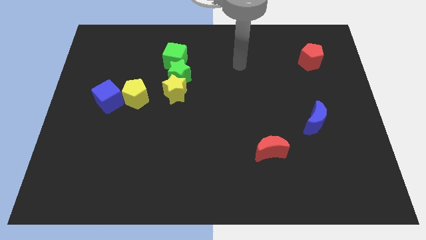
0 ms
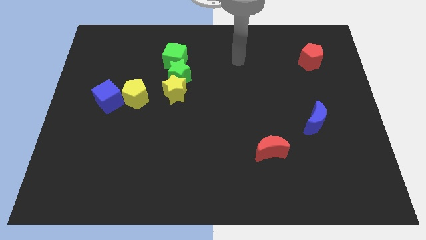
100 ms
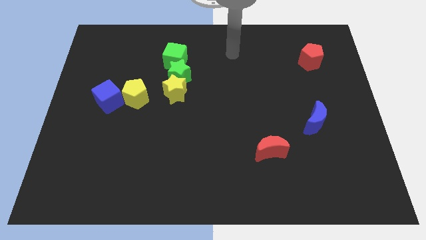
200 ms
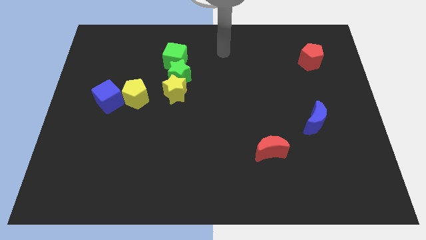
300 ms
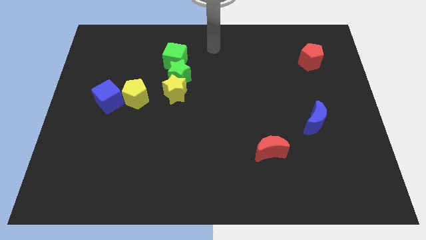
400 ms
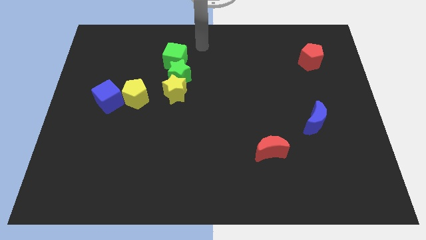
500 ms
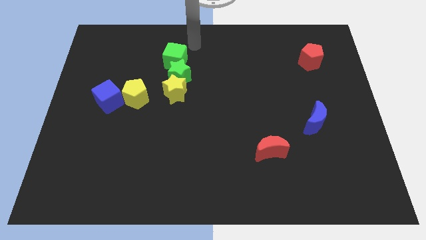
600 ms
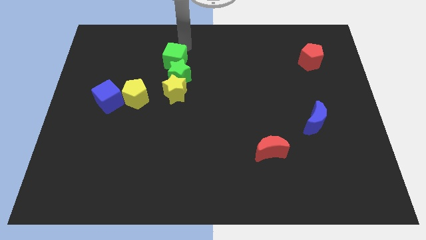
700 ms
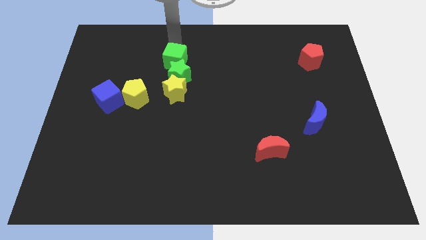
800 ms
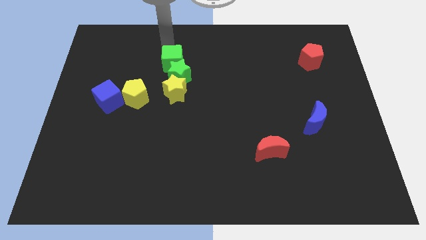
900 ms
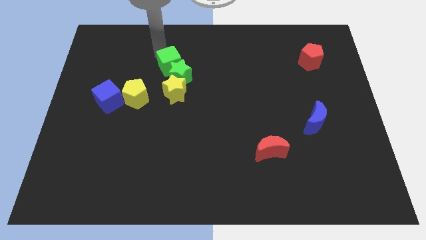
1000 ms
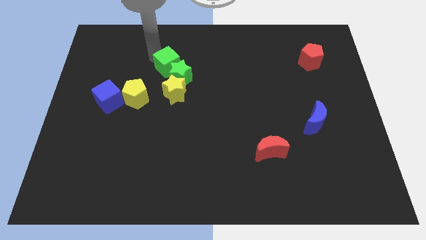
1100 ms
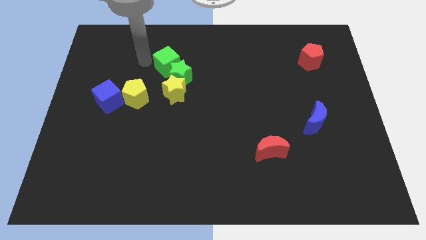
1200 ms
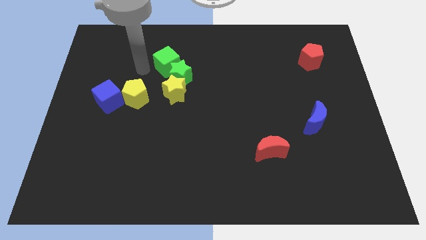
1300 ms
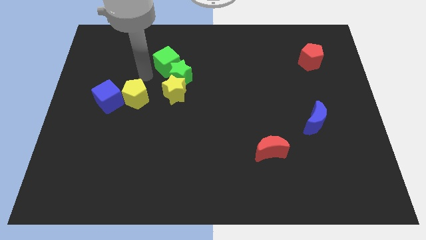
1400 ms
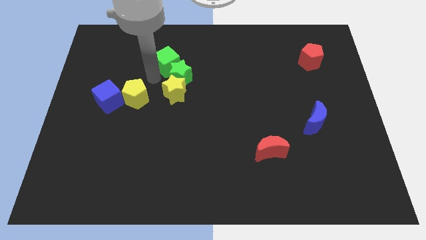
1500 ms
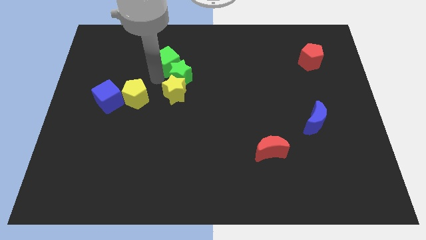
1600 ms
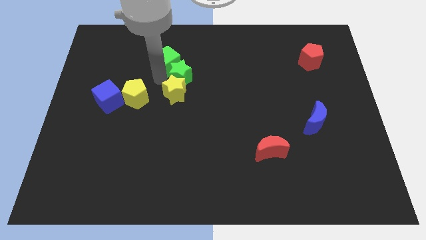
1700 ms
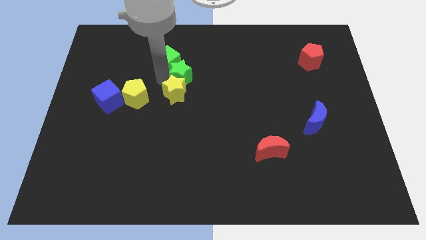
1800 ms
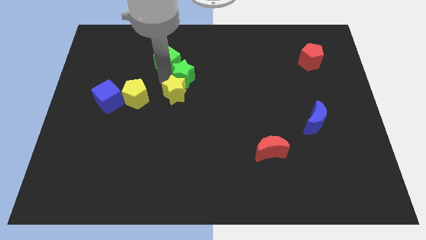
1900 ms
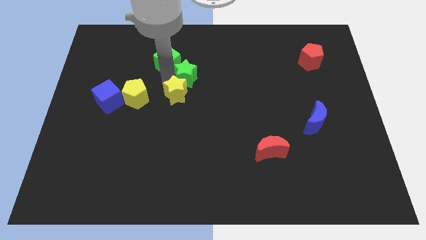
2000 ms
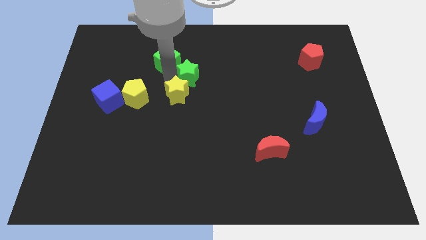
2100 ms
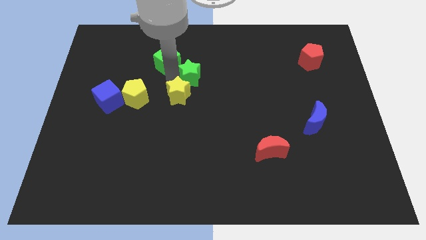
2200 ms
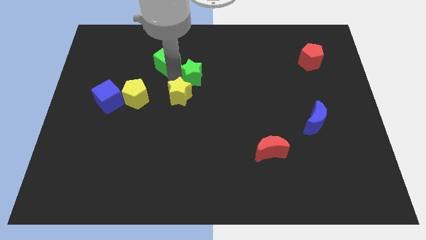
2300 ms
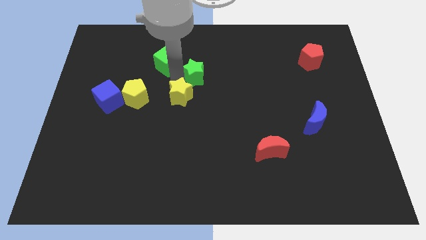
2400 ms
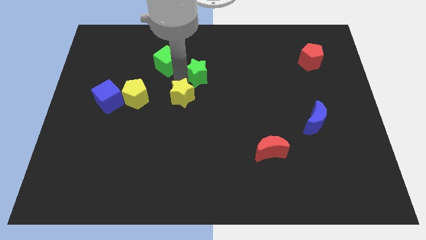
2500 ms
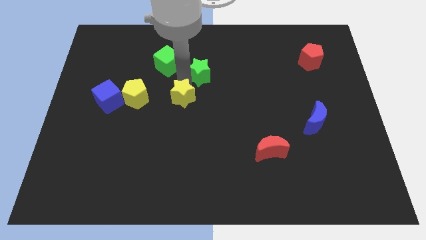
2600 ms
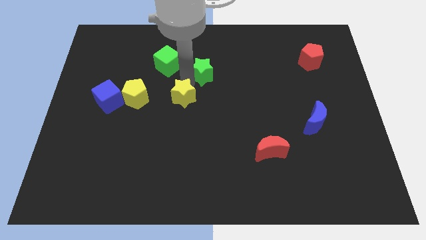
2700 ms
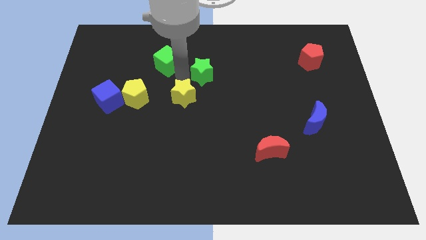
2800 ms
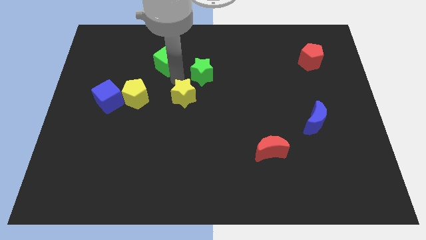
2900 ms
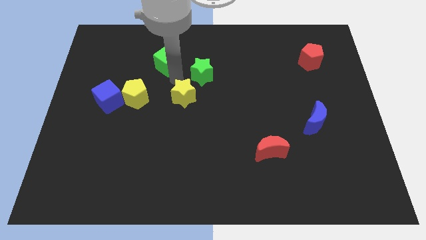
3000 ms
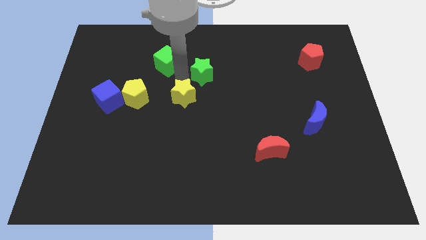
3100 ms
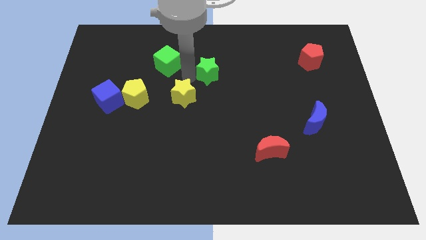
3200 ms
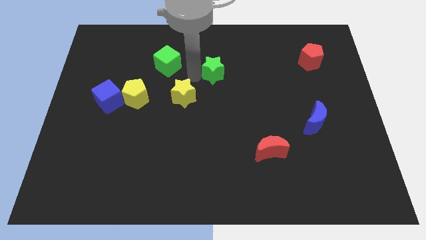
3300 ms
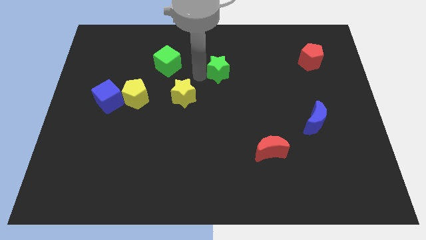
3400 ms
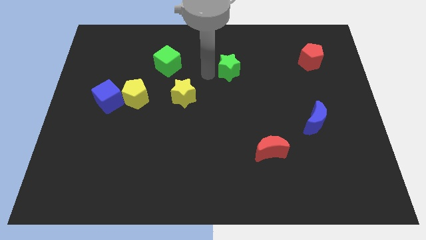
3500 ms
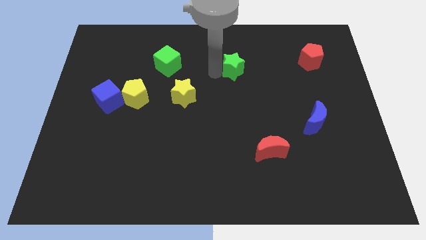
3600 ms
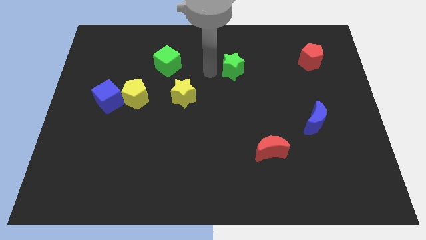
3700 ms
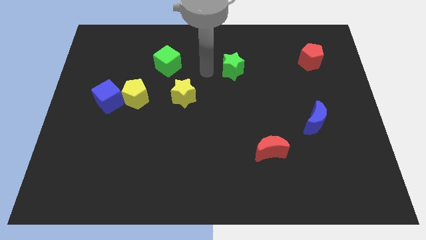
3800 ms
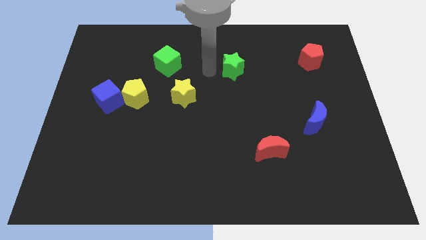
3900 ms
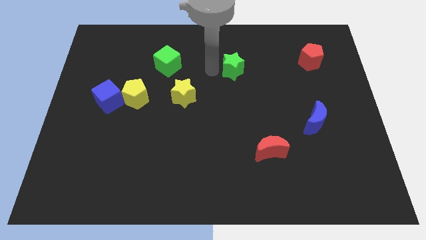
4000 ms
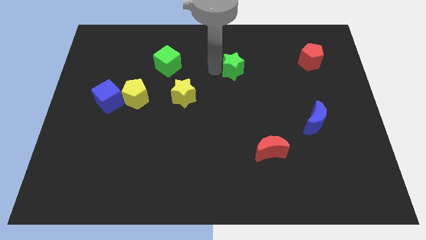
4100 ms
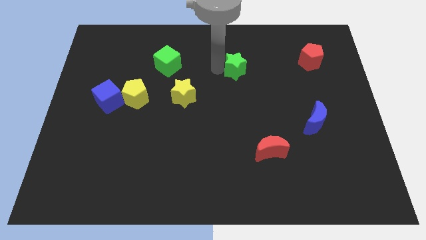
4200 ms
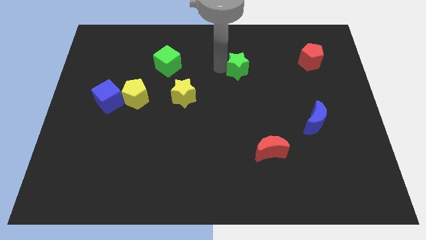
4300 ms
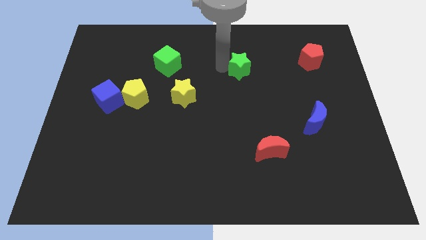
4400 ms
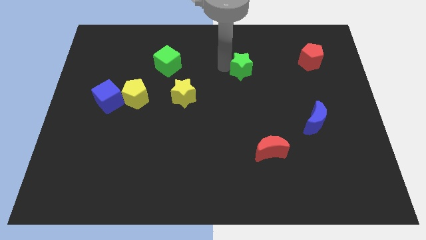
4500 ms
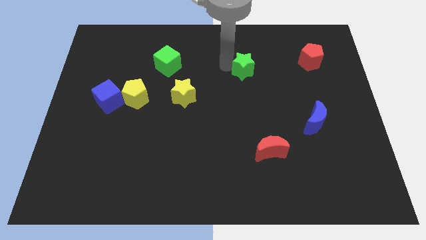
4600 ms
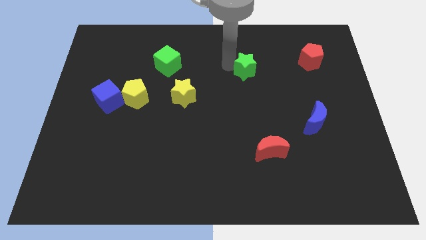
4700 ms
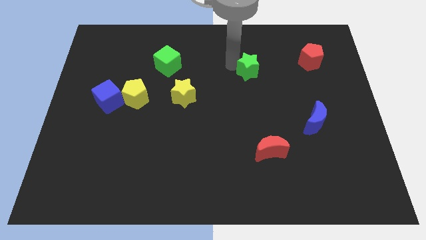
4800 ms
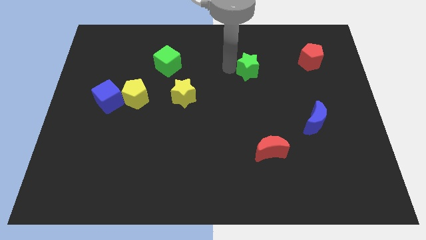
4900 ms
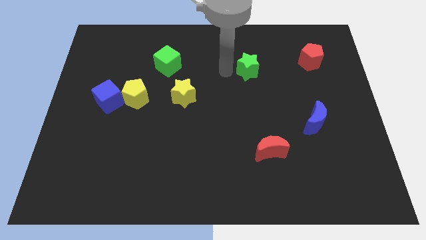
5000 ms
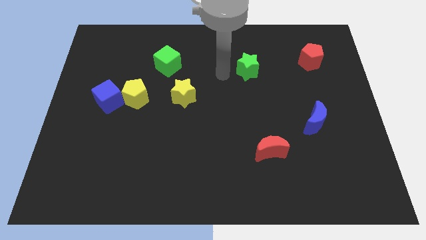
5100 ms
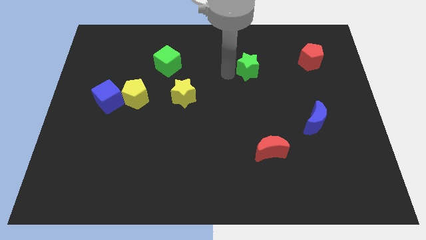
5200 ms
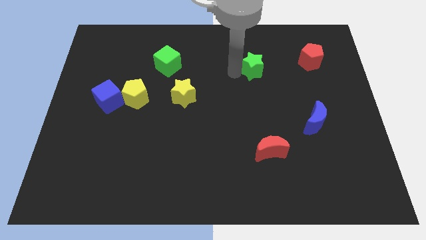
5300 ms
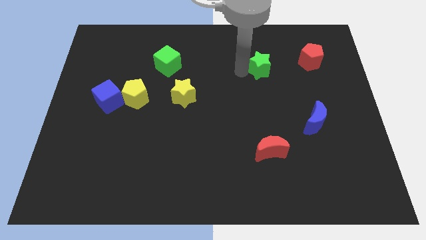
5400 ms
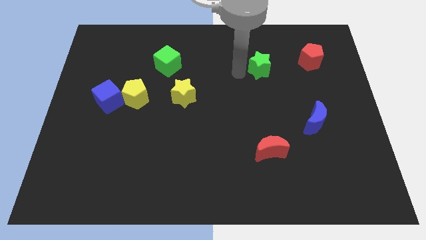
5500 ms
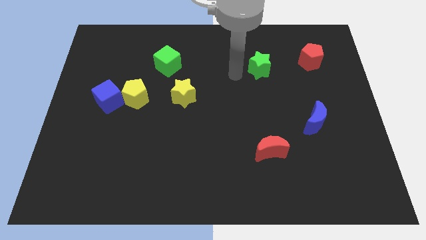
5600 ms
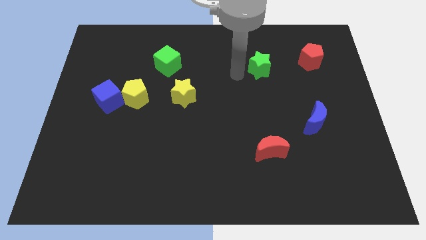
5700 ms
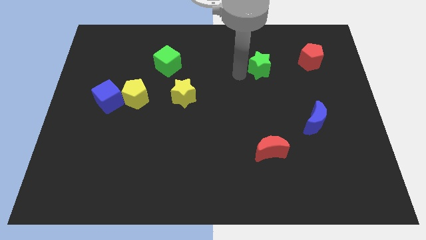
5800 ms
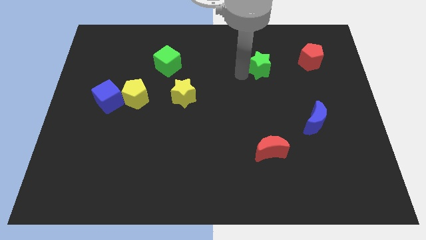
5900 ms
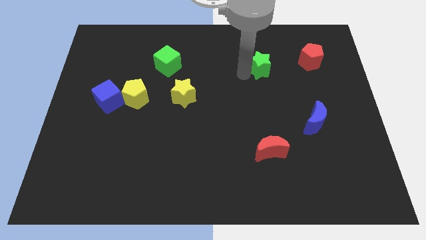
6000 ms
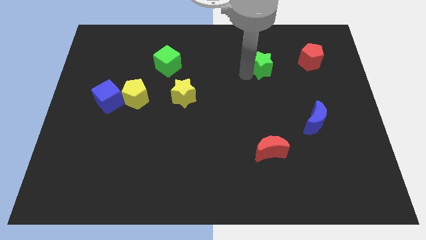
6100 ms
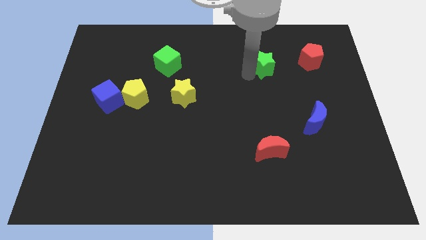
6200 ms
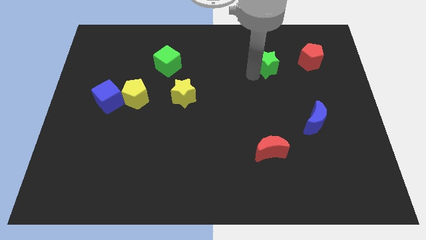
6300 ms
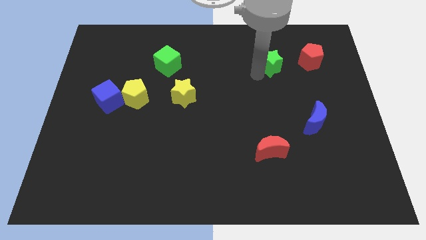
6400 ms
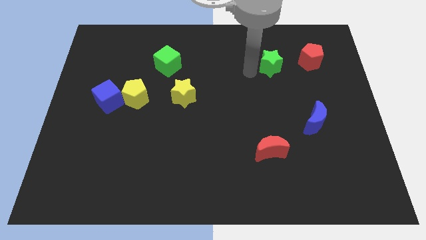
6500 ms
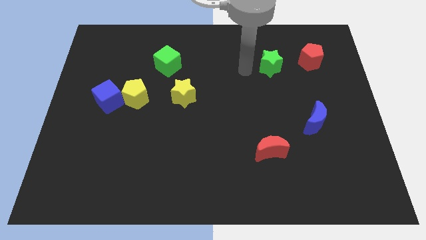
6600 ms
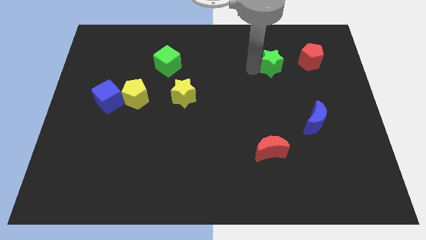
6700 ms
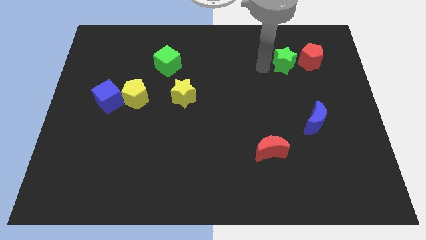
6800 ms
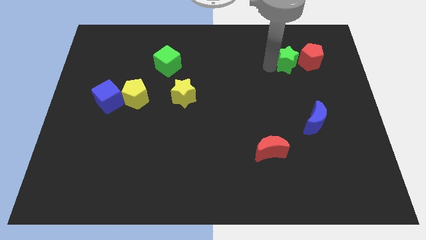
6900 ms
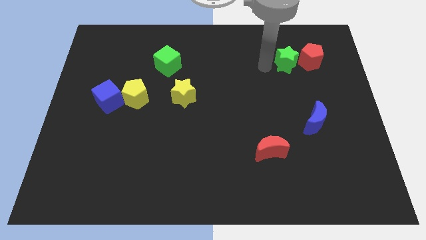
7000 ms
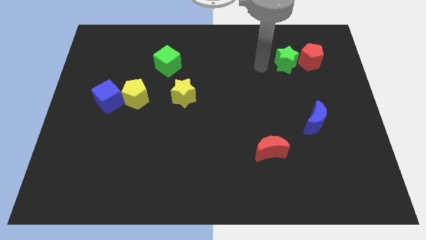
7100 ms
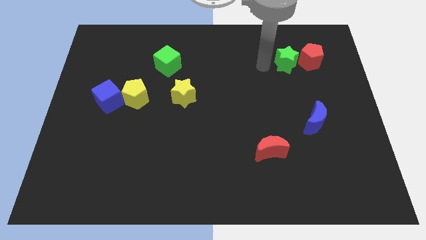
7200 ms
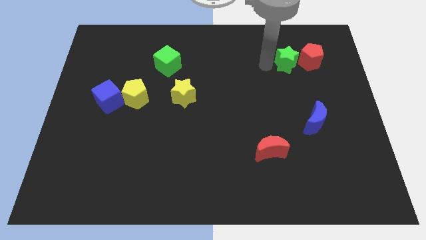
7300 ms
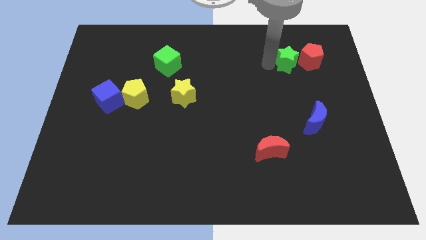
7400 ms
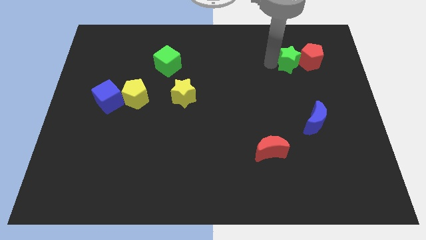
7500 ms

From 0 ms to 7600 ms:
put the green star to the red pentagon
